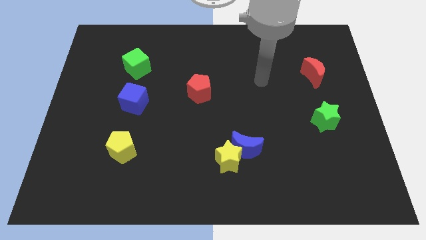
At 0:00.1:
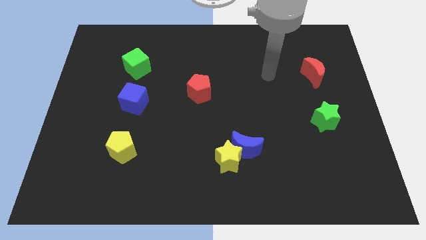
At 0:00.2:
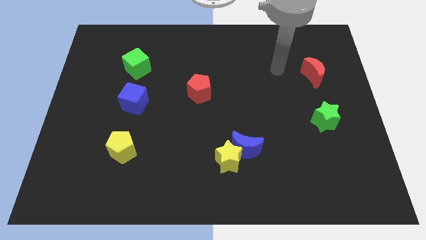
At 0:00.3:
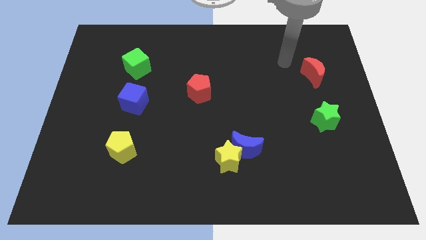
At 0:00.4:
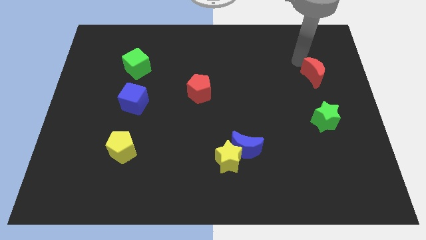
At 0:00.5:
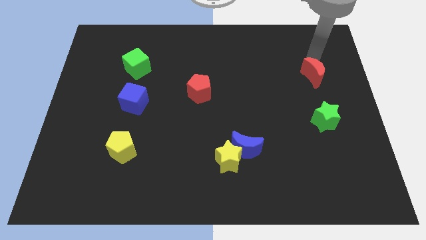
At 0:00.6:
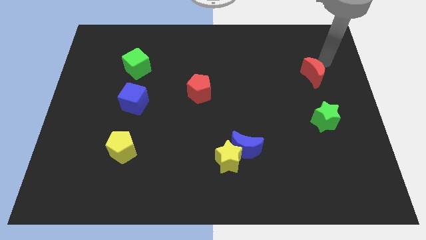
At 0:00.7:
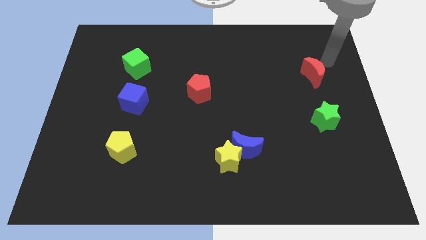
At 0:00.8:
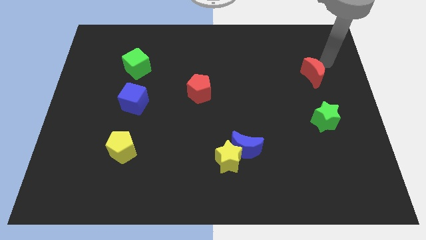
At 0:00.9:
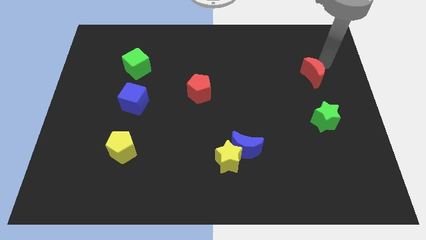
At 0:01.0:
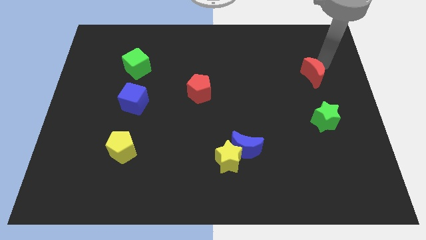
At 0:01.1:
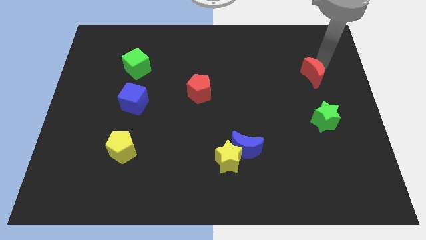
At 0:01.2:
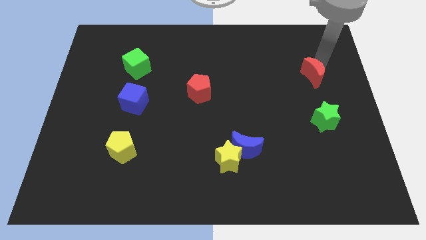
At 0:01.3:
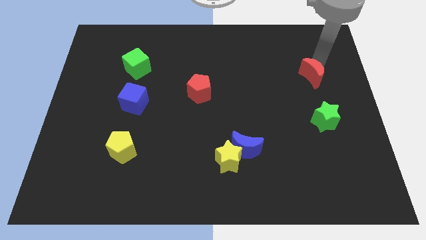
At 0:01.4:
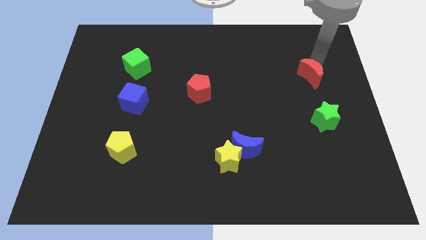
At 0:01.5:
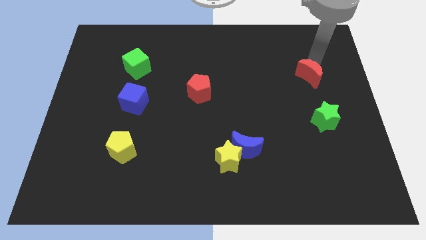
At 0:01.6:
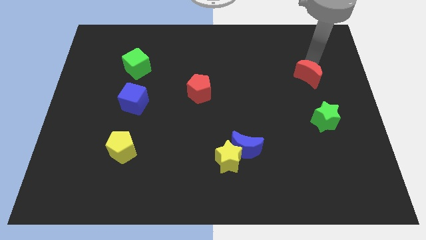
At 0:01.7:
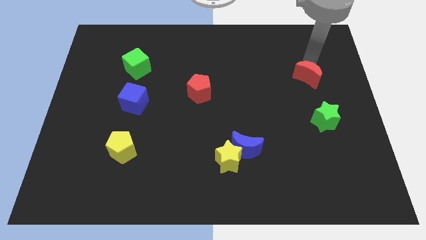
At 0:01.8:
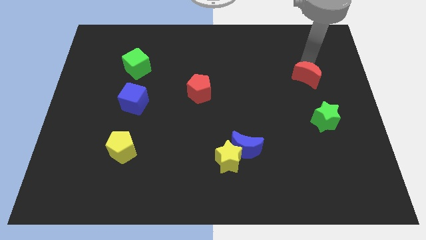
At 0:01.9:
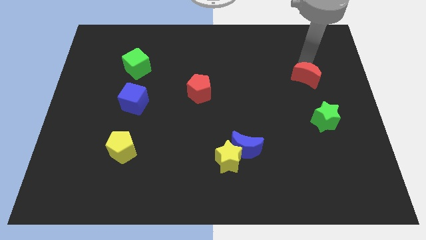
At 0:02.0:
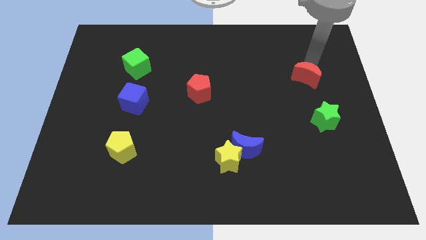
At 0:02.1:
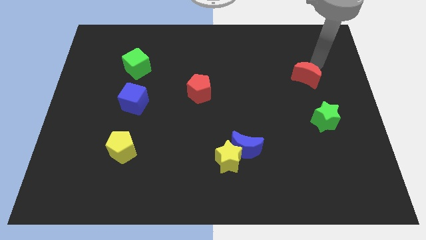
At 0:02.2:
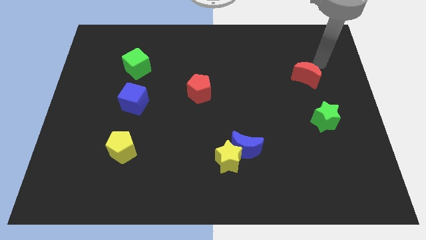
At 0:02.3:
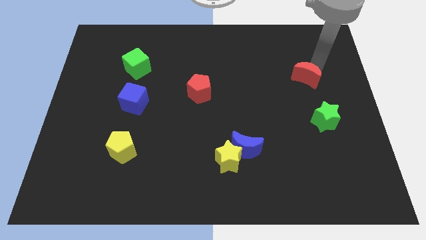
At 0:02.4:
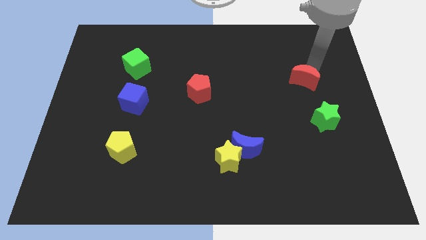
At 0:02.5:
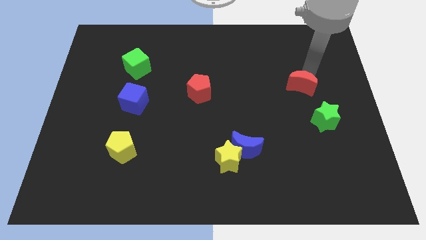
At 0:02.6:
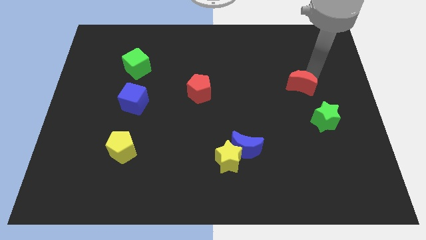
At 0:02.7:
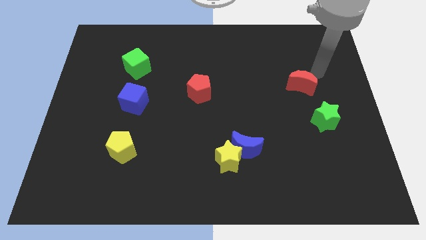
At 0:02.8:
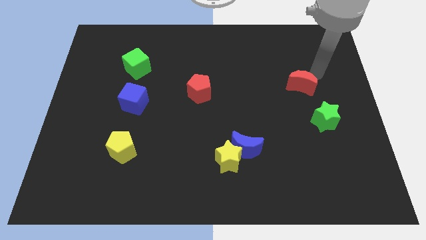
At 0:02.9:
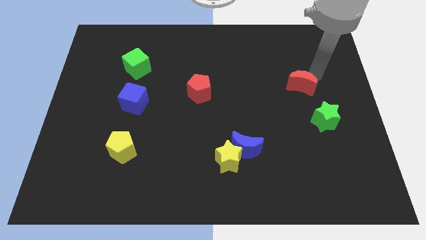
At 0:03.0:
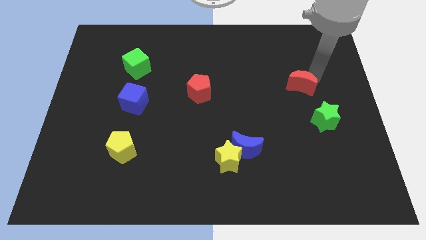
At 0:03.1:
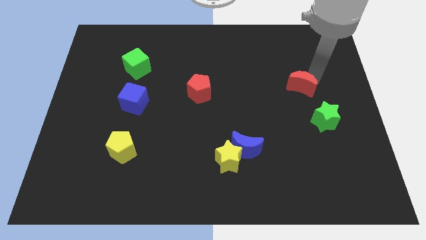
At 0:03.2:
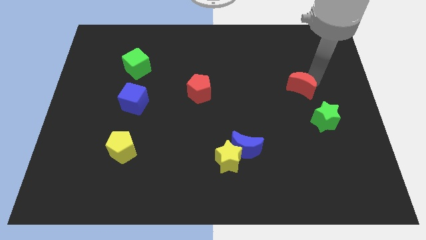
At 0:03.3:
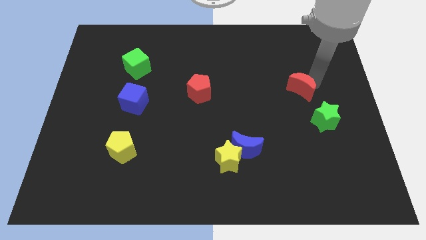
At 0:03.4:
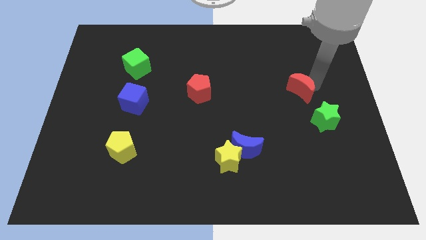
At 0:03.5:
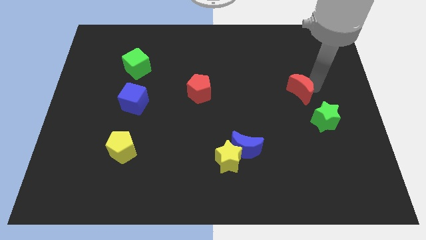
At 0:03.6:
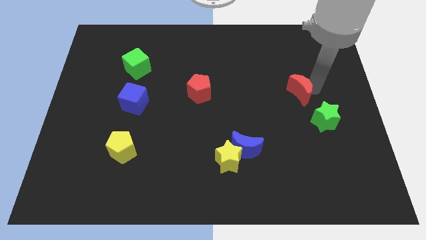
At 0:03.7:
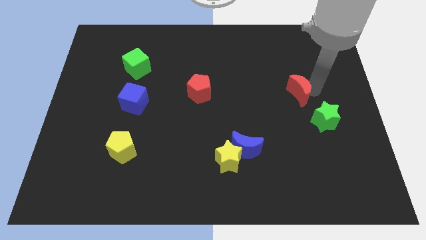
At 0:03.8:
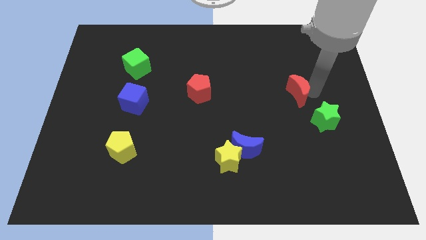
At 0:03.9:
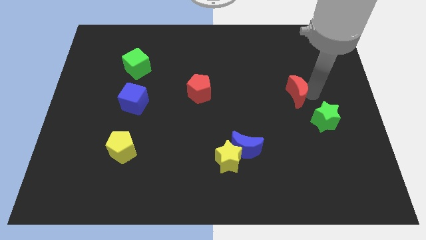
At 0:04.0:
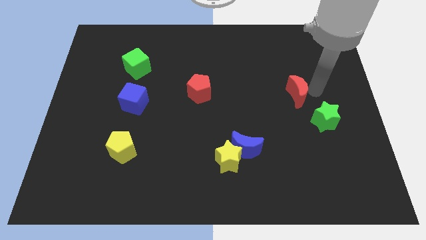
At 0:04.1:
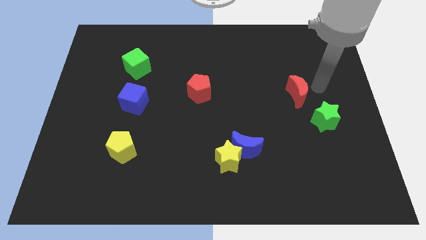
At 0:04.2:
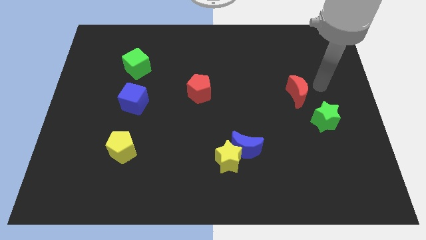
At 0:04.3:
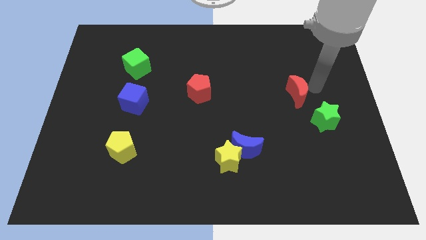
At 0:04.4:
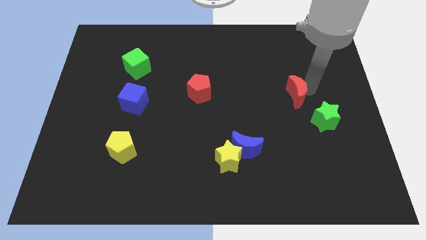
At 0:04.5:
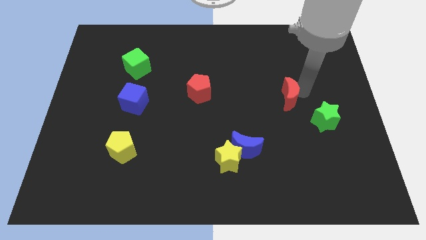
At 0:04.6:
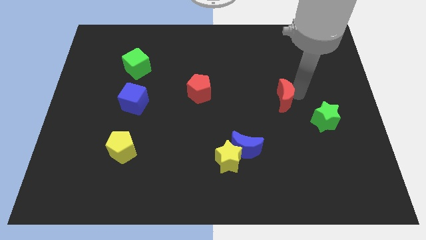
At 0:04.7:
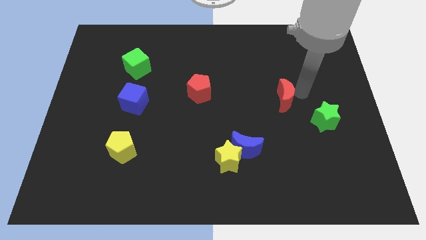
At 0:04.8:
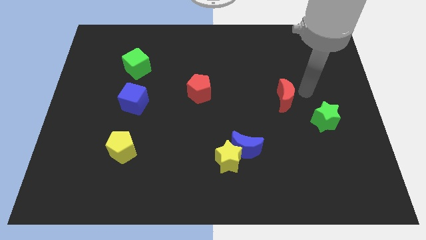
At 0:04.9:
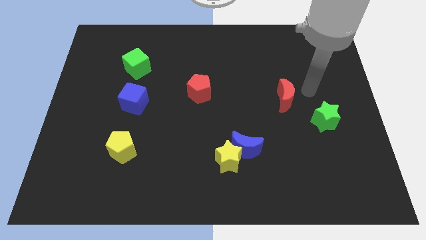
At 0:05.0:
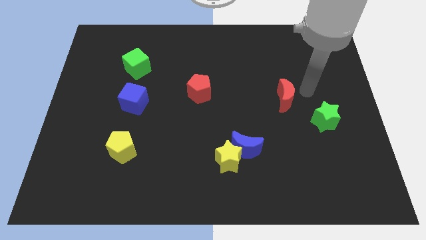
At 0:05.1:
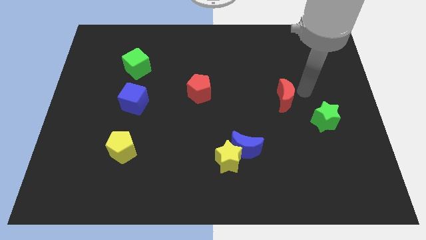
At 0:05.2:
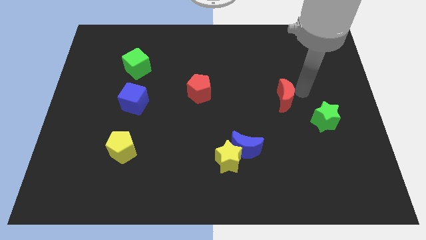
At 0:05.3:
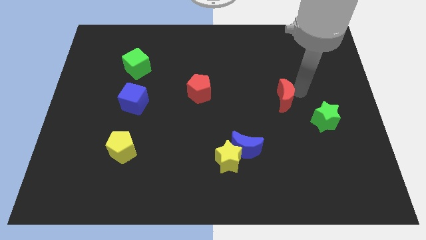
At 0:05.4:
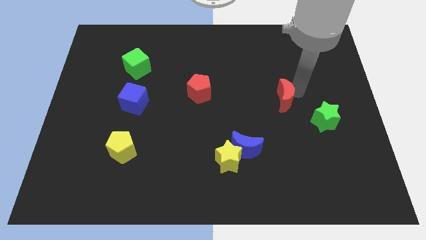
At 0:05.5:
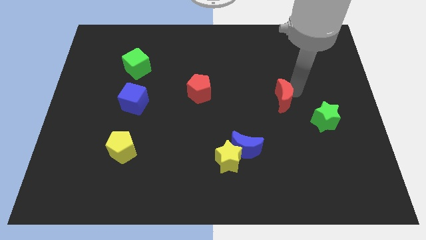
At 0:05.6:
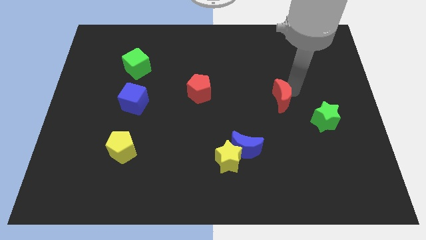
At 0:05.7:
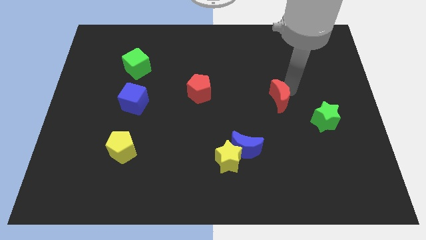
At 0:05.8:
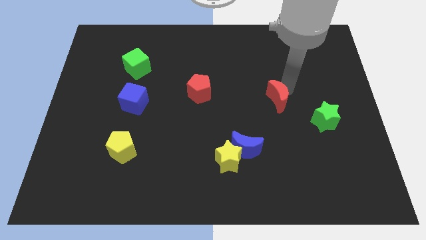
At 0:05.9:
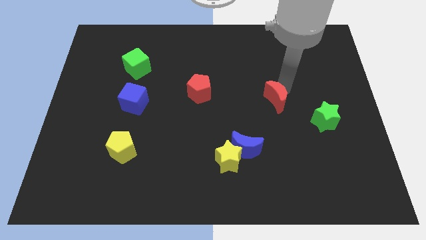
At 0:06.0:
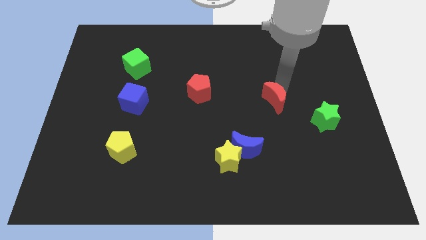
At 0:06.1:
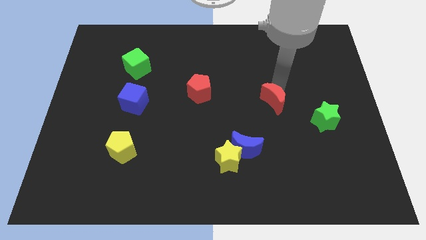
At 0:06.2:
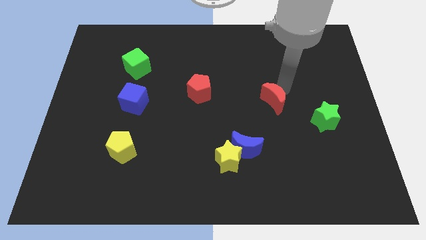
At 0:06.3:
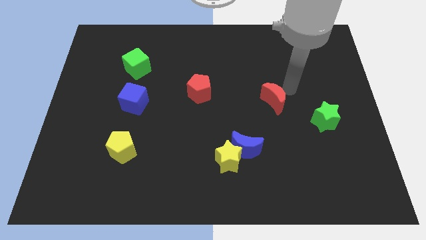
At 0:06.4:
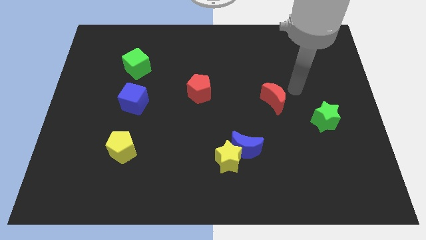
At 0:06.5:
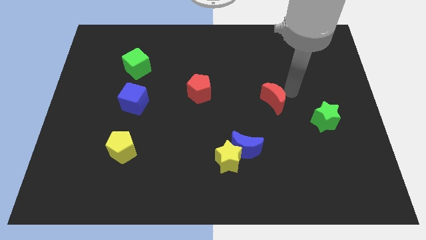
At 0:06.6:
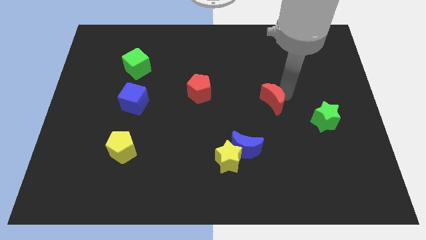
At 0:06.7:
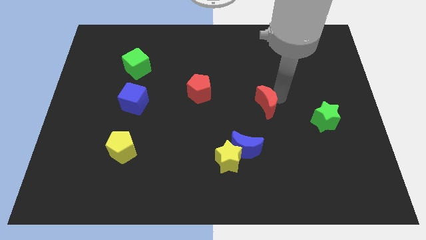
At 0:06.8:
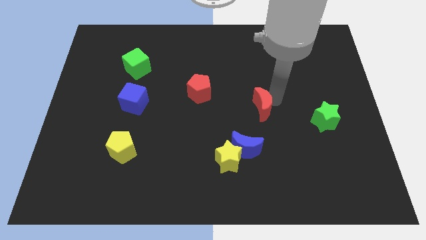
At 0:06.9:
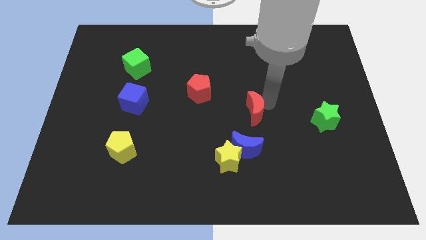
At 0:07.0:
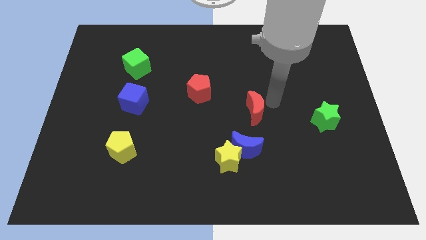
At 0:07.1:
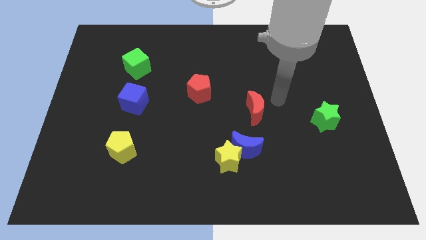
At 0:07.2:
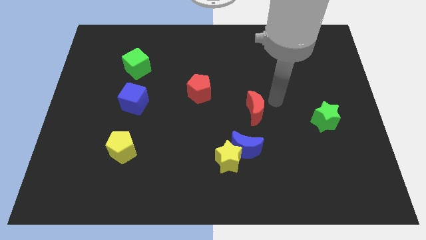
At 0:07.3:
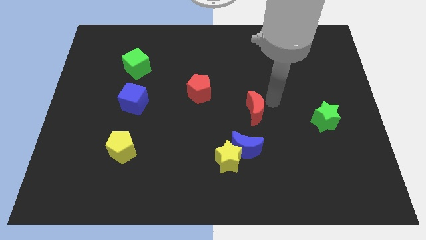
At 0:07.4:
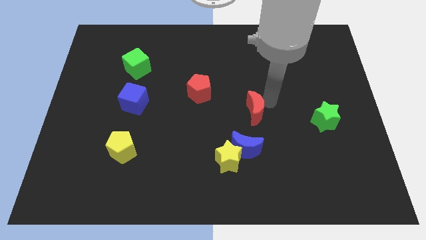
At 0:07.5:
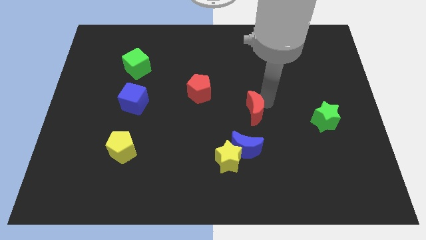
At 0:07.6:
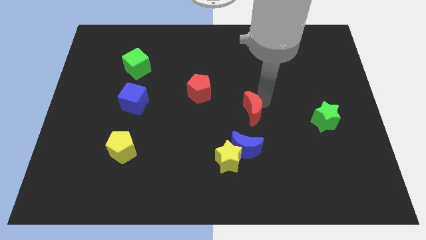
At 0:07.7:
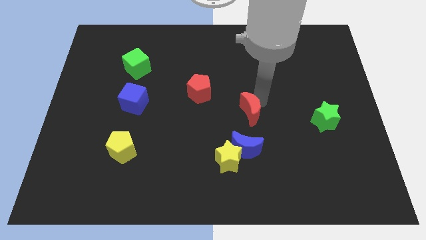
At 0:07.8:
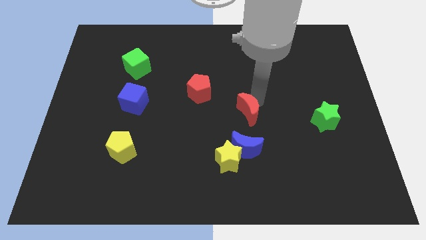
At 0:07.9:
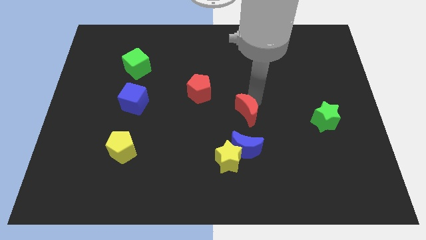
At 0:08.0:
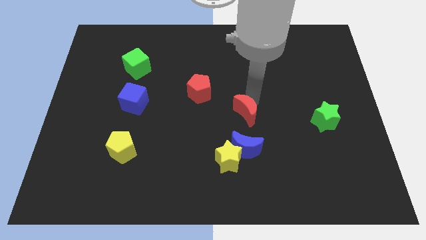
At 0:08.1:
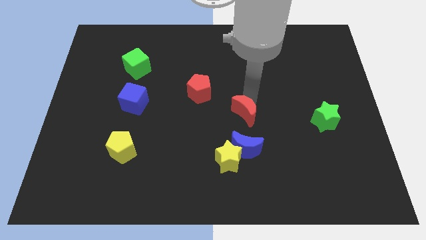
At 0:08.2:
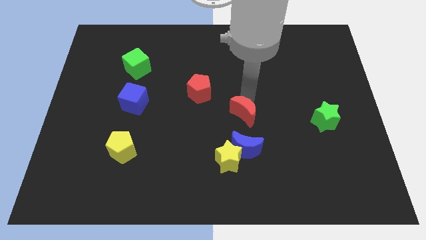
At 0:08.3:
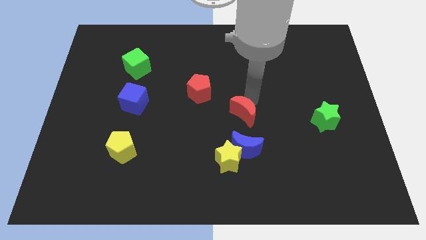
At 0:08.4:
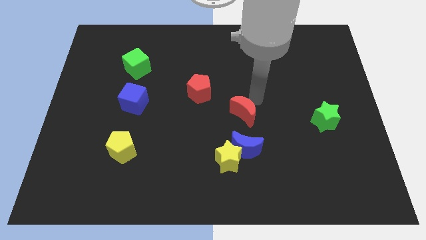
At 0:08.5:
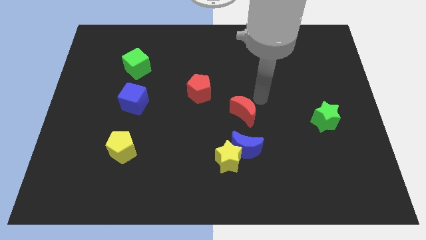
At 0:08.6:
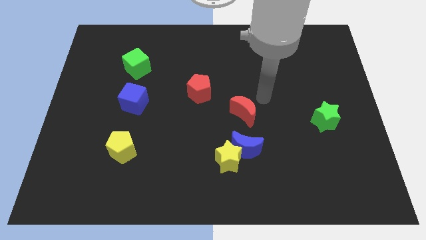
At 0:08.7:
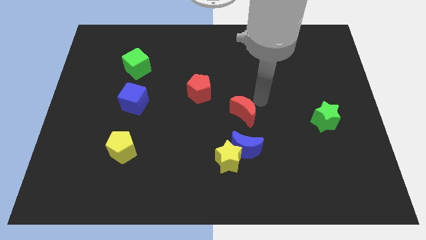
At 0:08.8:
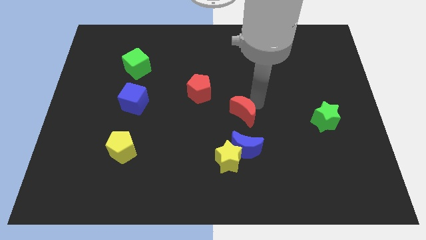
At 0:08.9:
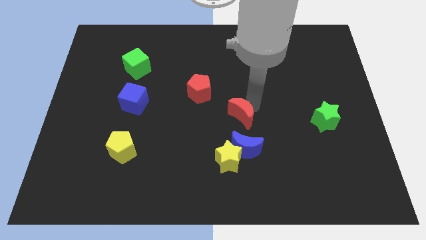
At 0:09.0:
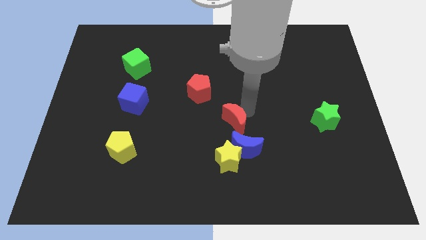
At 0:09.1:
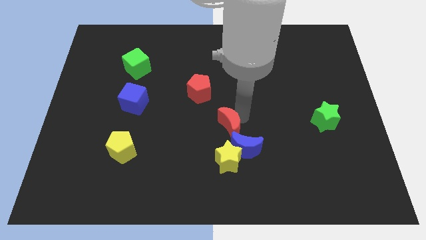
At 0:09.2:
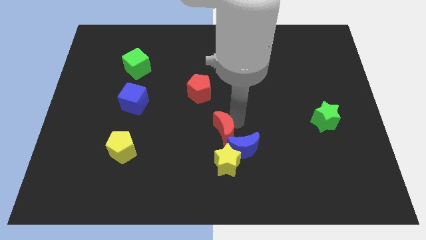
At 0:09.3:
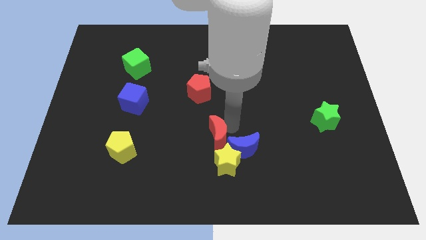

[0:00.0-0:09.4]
move the red moon to the top left side of the yellow star
